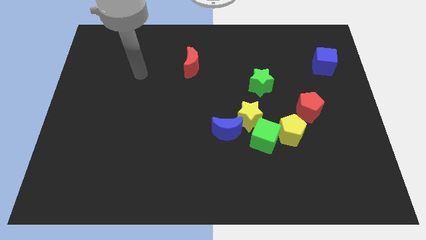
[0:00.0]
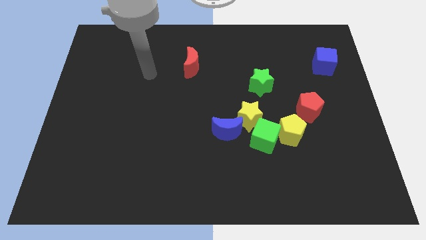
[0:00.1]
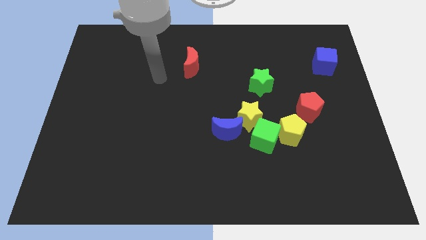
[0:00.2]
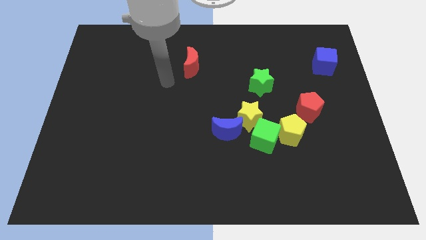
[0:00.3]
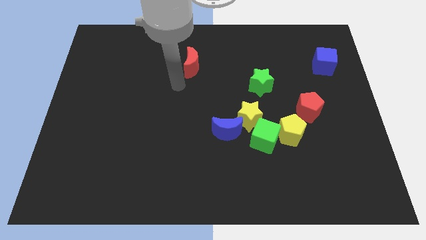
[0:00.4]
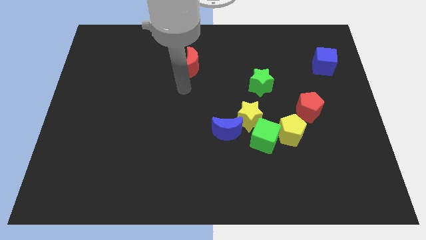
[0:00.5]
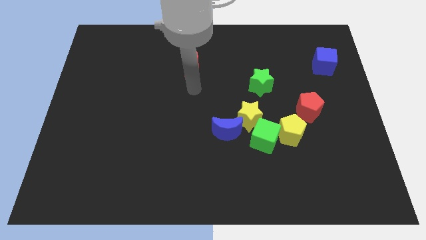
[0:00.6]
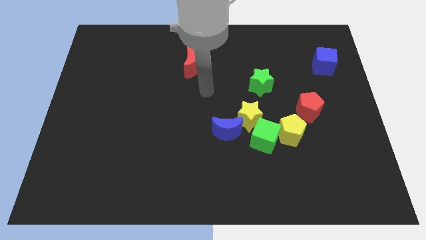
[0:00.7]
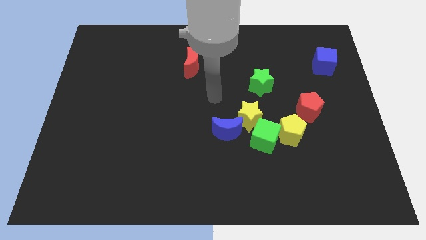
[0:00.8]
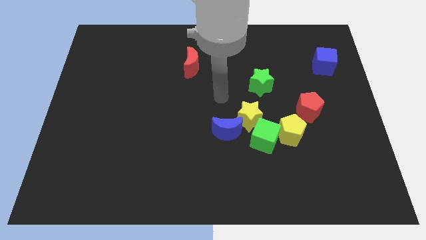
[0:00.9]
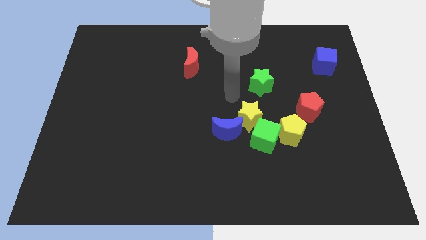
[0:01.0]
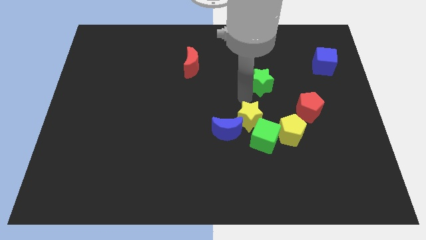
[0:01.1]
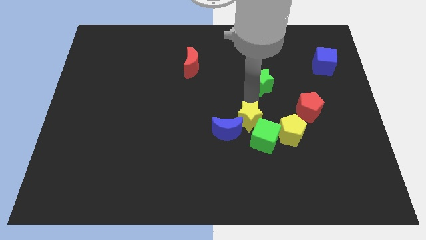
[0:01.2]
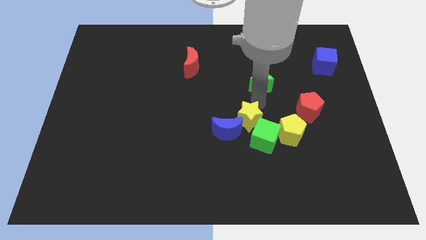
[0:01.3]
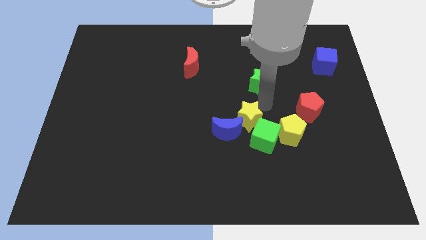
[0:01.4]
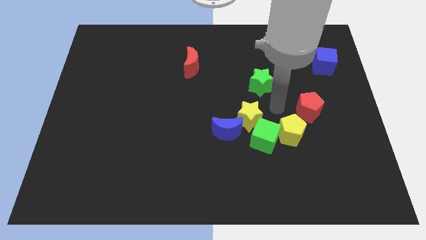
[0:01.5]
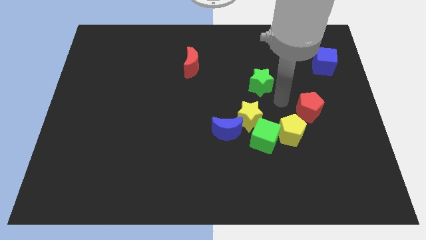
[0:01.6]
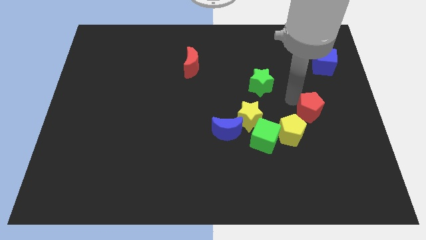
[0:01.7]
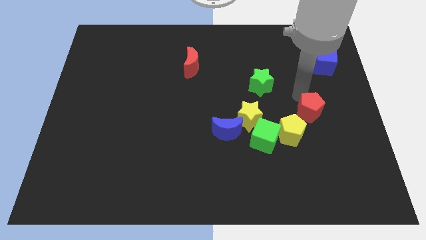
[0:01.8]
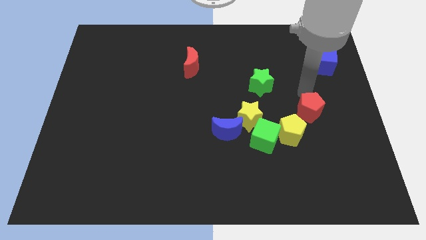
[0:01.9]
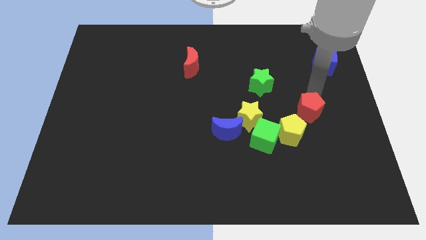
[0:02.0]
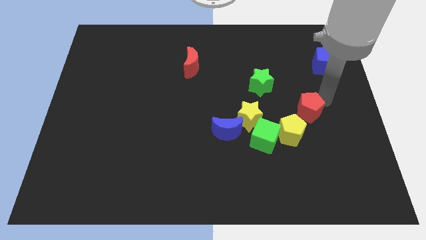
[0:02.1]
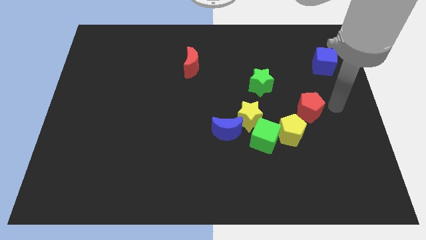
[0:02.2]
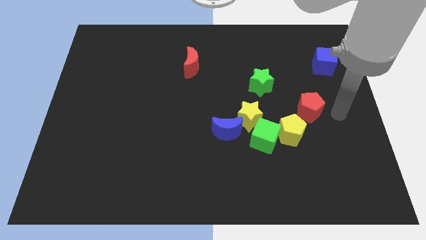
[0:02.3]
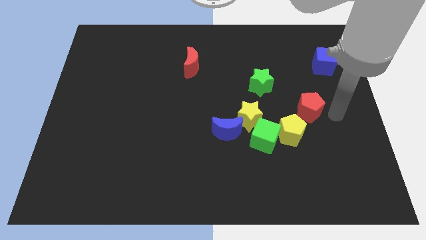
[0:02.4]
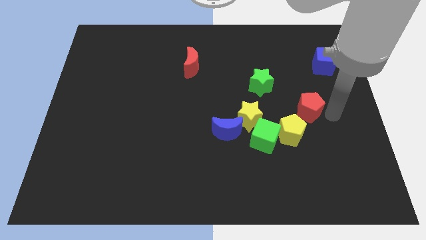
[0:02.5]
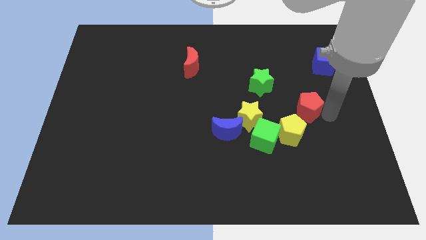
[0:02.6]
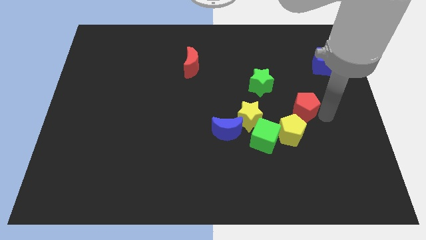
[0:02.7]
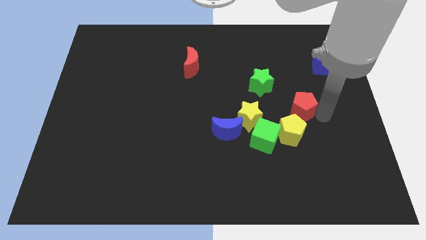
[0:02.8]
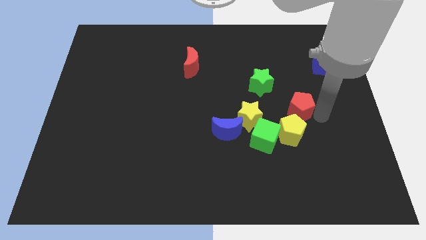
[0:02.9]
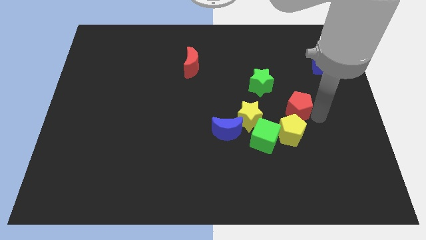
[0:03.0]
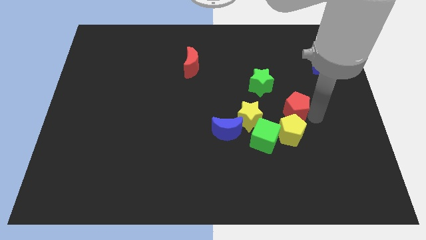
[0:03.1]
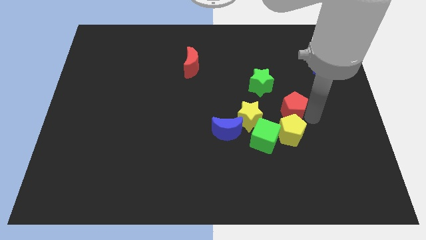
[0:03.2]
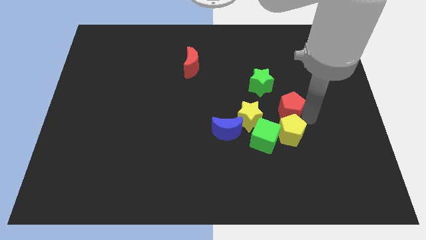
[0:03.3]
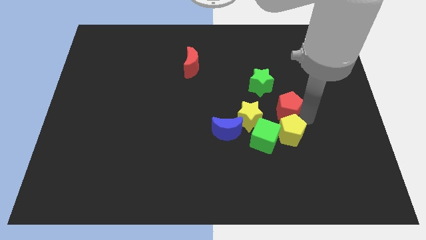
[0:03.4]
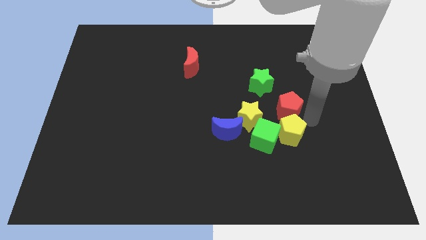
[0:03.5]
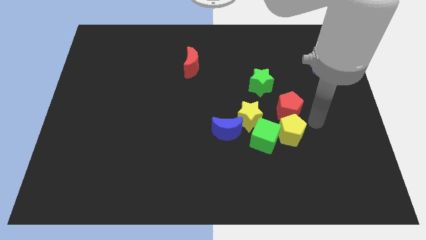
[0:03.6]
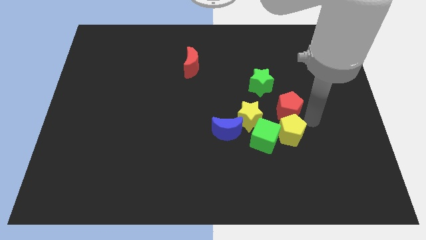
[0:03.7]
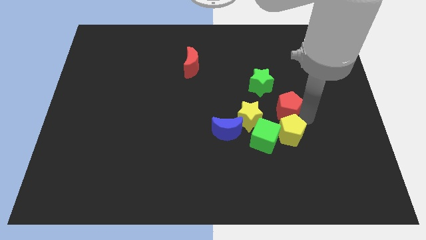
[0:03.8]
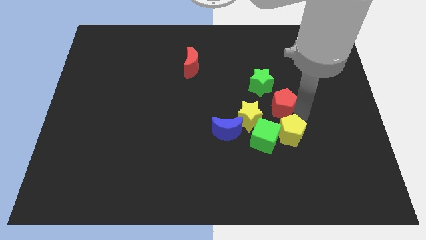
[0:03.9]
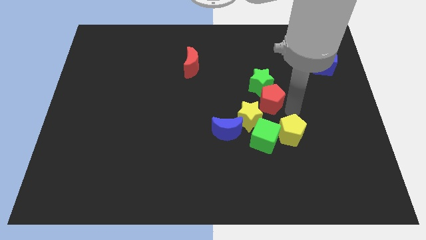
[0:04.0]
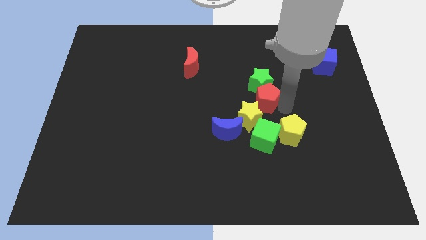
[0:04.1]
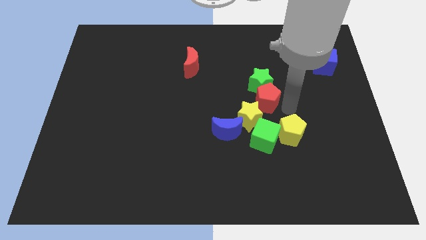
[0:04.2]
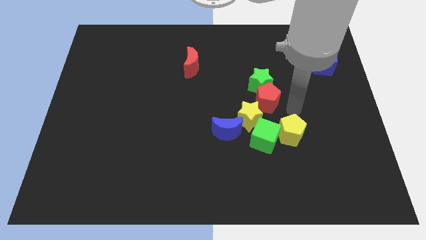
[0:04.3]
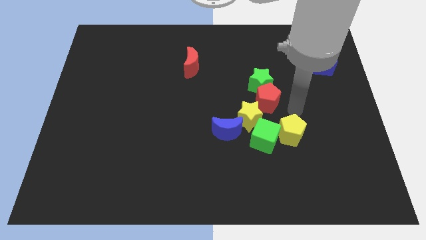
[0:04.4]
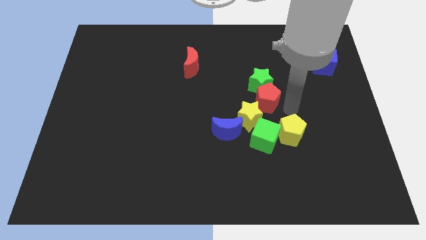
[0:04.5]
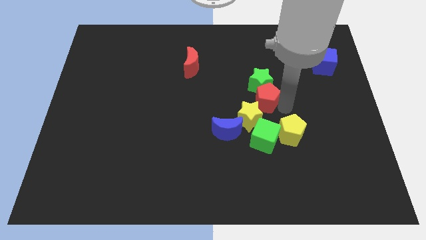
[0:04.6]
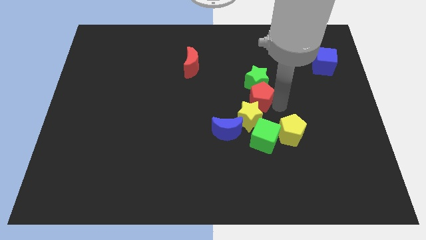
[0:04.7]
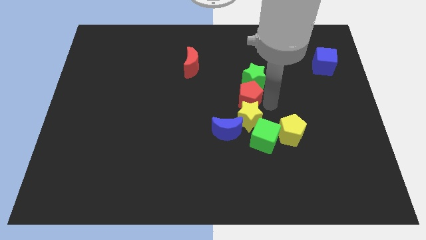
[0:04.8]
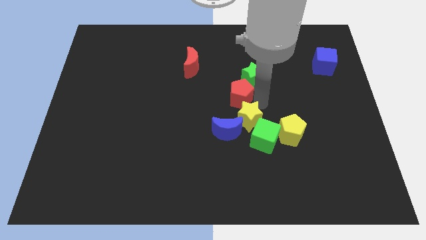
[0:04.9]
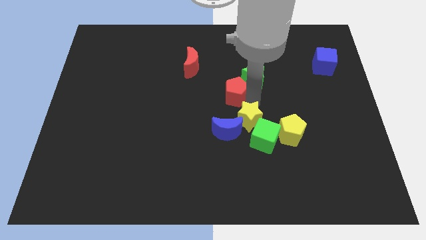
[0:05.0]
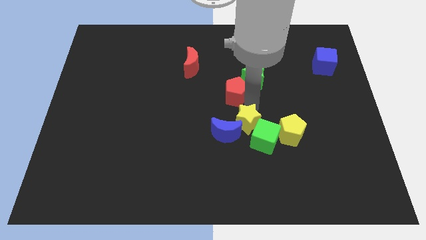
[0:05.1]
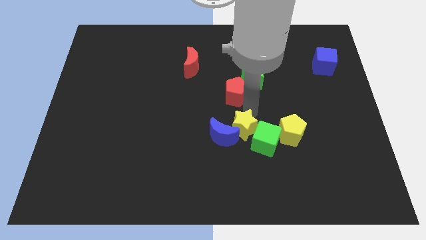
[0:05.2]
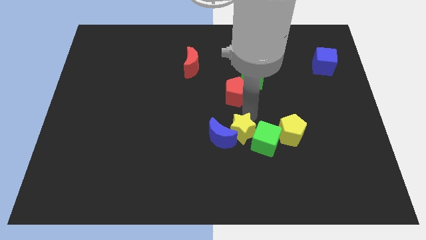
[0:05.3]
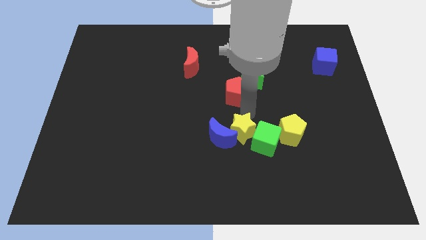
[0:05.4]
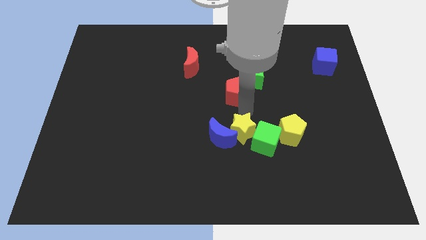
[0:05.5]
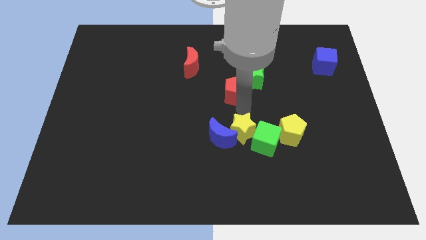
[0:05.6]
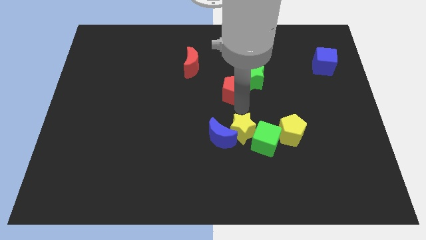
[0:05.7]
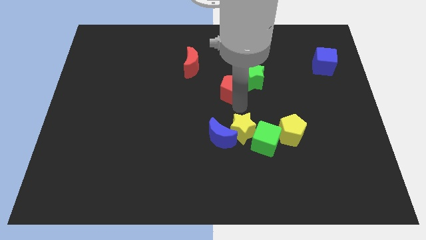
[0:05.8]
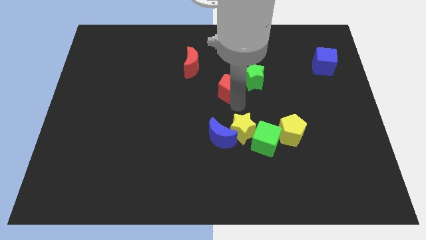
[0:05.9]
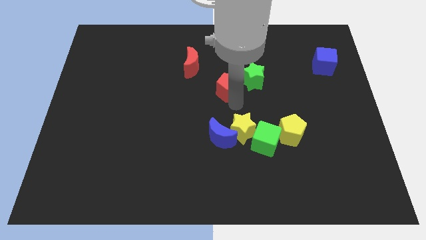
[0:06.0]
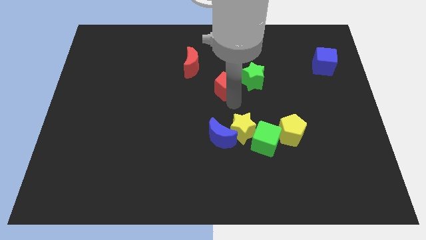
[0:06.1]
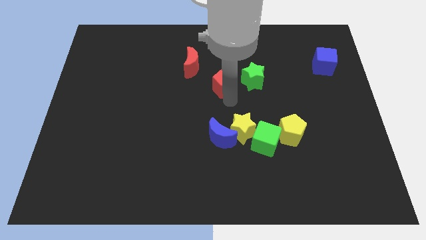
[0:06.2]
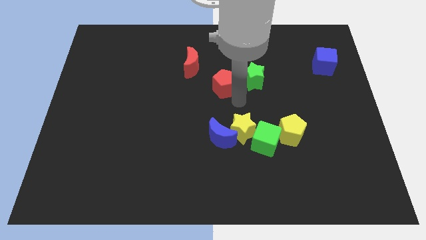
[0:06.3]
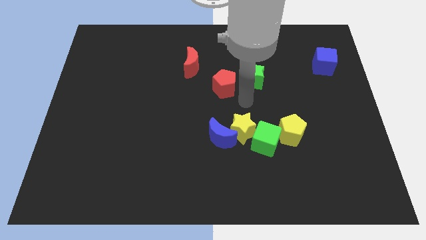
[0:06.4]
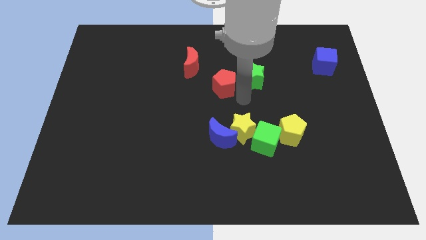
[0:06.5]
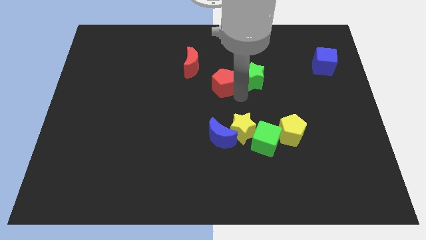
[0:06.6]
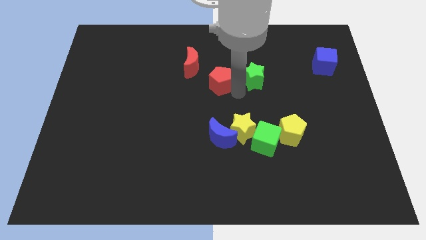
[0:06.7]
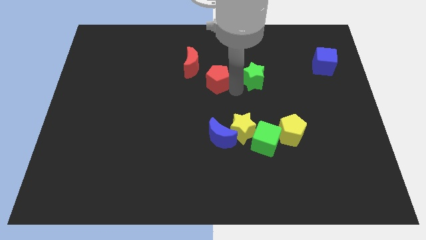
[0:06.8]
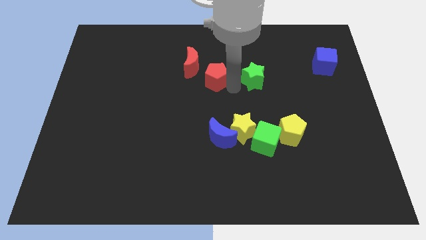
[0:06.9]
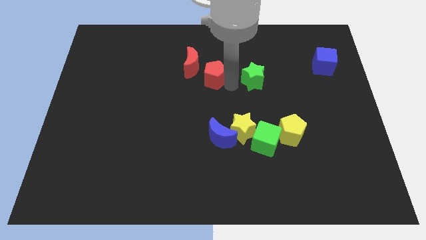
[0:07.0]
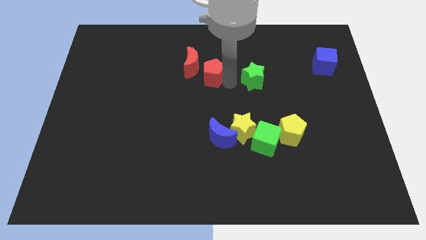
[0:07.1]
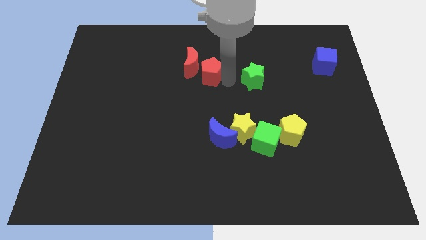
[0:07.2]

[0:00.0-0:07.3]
move the red pentagon to the red moon
